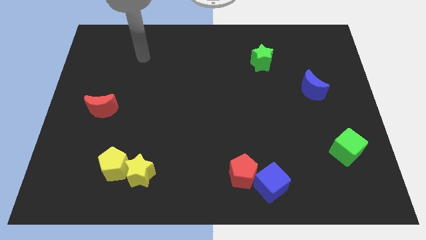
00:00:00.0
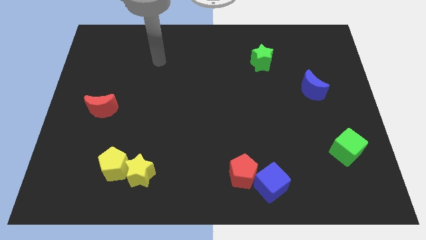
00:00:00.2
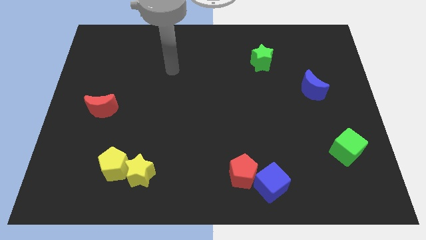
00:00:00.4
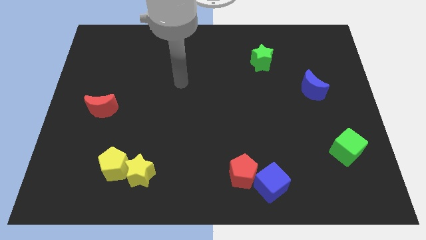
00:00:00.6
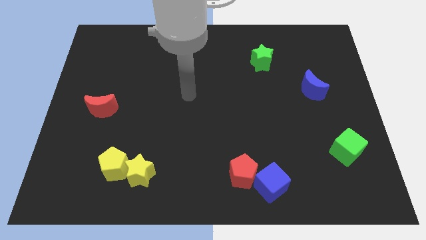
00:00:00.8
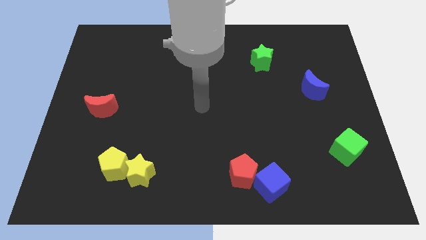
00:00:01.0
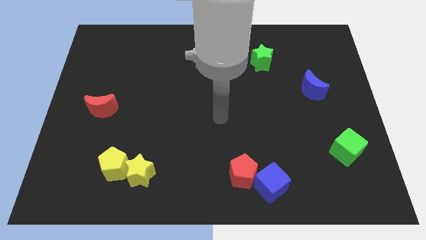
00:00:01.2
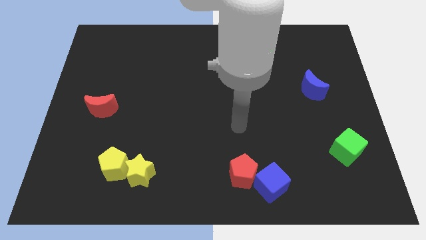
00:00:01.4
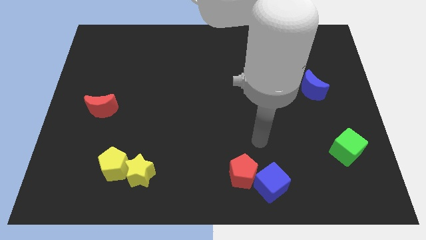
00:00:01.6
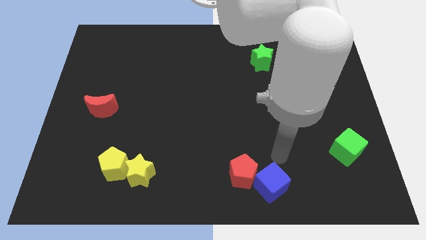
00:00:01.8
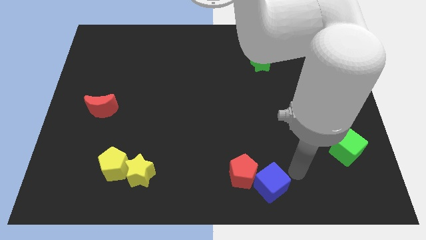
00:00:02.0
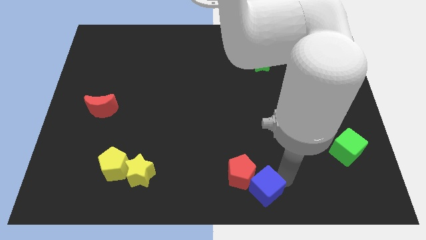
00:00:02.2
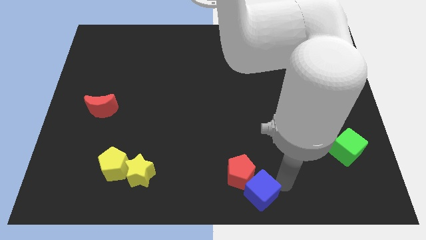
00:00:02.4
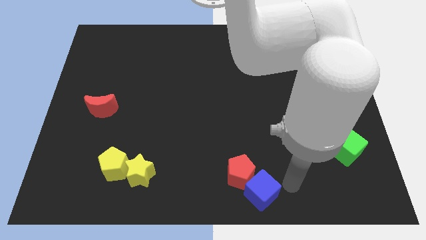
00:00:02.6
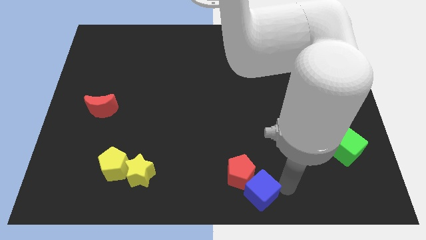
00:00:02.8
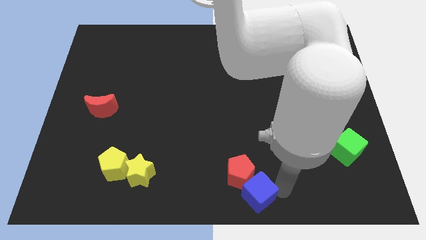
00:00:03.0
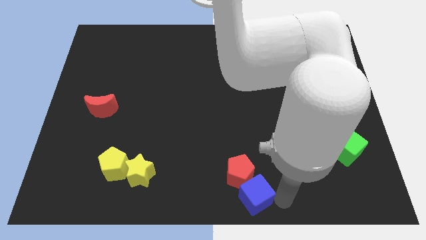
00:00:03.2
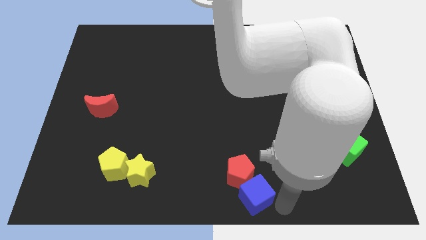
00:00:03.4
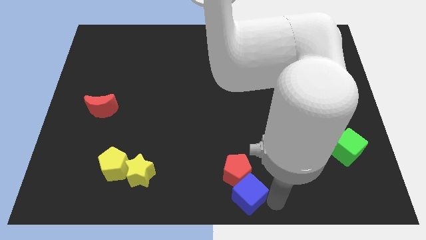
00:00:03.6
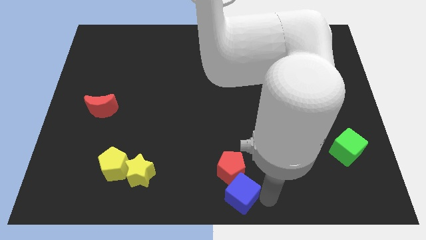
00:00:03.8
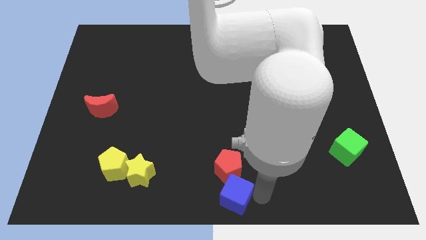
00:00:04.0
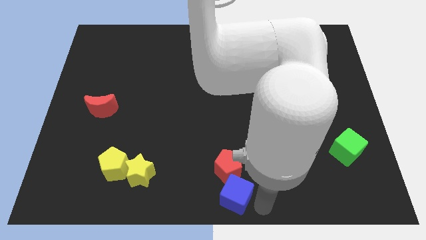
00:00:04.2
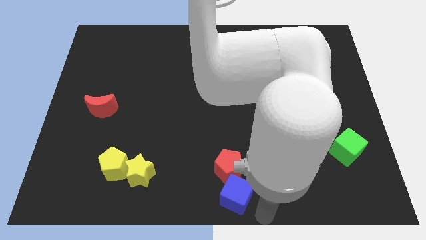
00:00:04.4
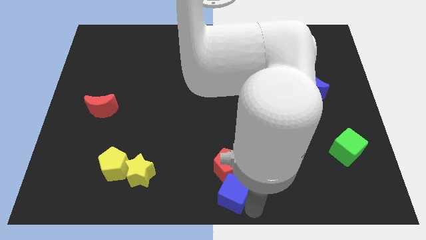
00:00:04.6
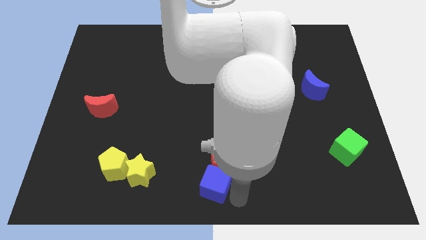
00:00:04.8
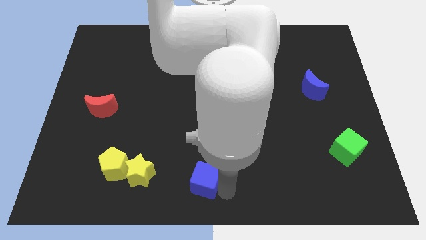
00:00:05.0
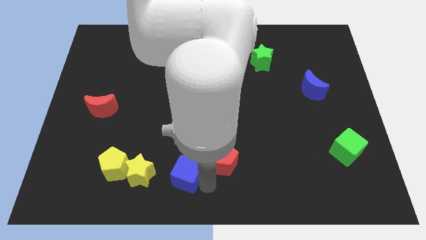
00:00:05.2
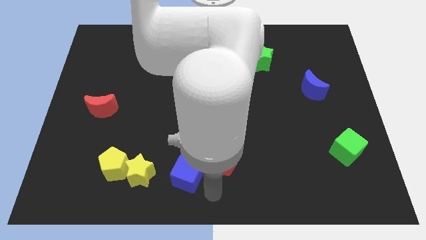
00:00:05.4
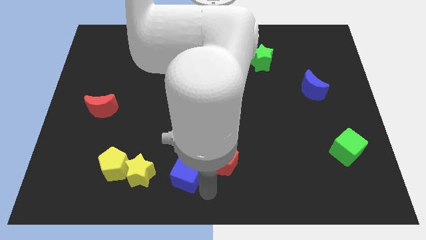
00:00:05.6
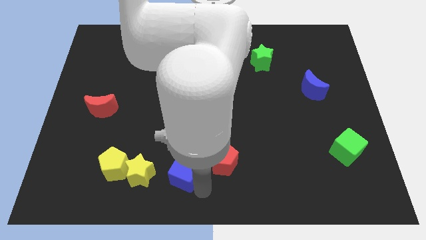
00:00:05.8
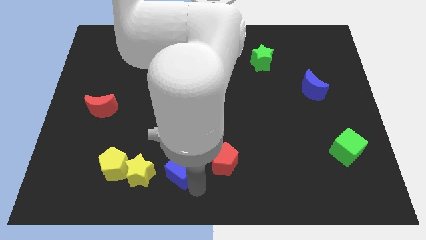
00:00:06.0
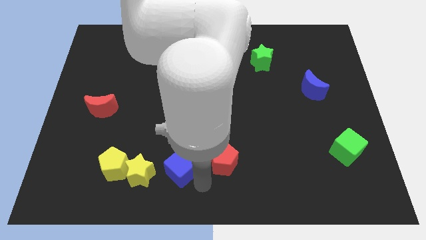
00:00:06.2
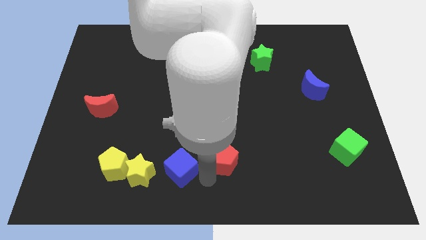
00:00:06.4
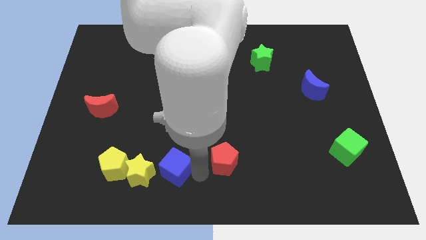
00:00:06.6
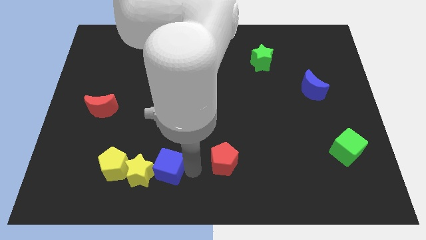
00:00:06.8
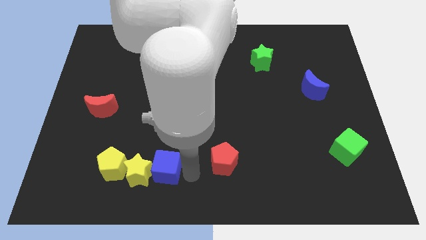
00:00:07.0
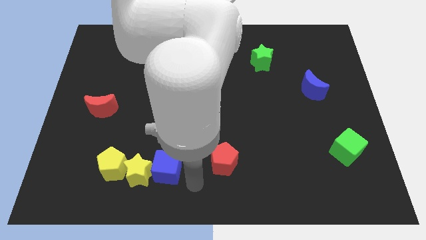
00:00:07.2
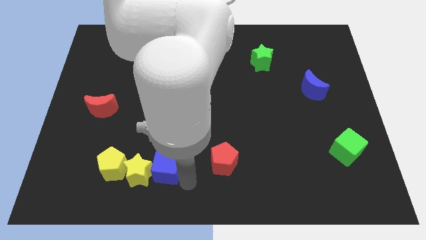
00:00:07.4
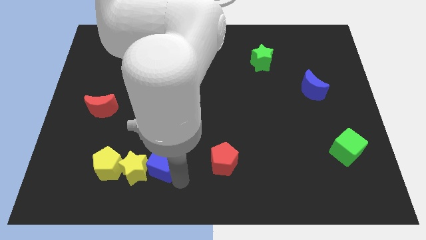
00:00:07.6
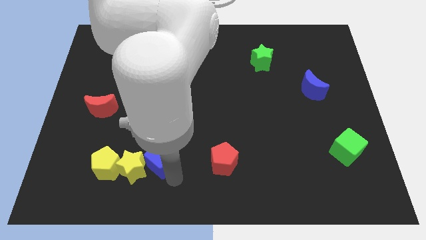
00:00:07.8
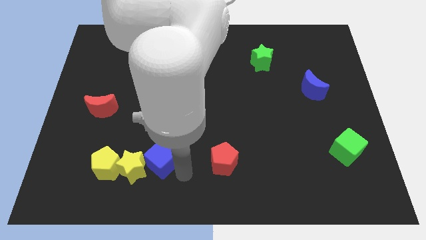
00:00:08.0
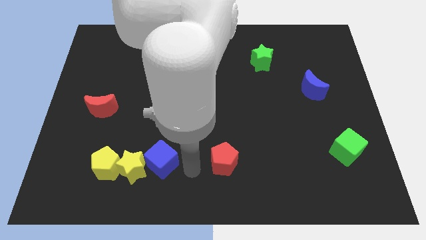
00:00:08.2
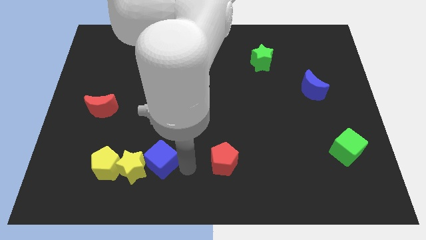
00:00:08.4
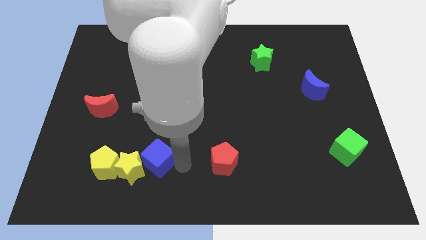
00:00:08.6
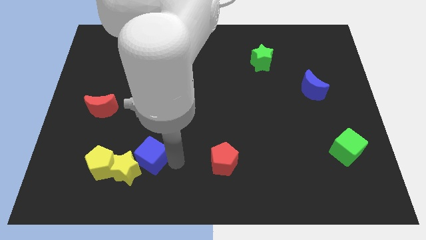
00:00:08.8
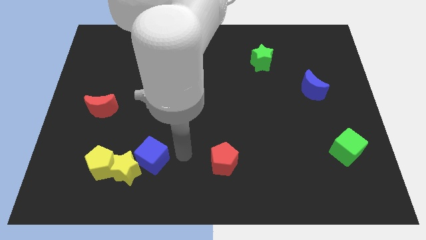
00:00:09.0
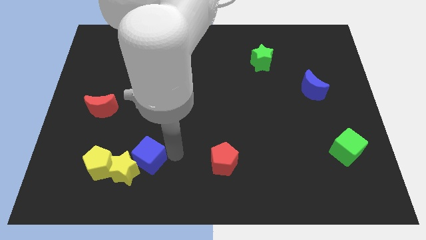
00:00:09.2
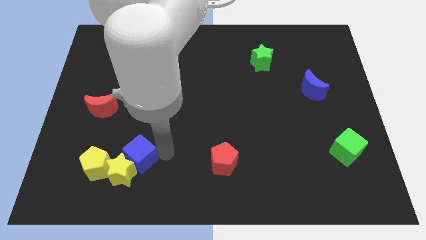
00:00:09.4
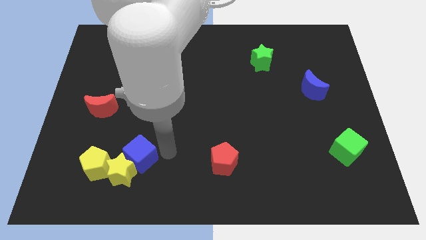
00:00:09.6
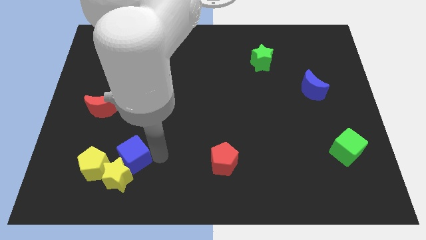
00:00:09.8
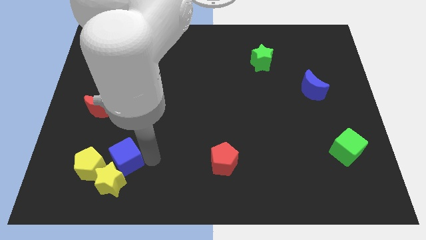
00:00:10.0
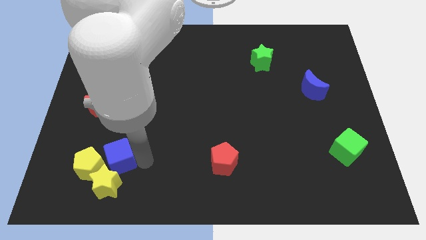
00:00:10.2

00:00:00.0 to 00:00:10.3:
put the blue cube towards the yellow pentagon

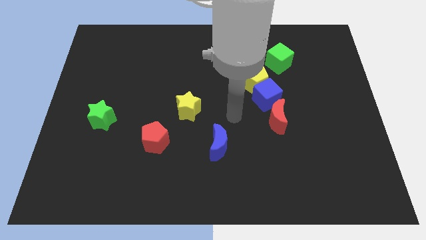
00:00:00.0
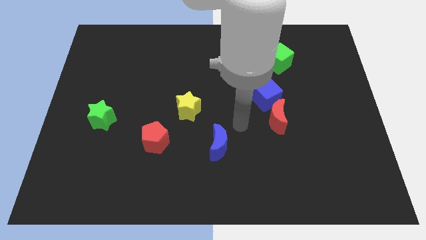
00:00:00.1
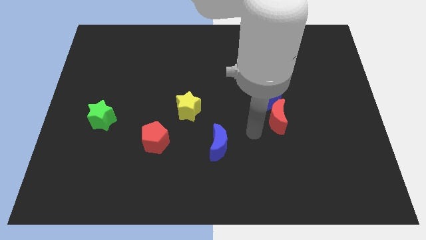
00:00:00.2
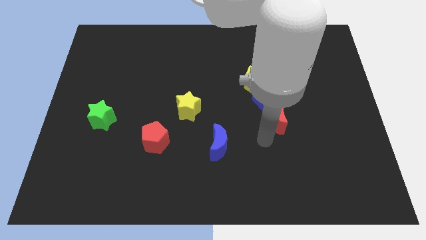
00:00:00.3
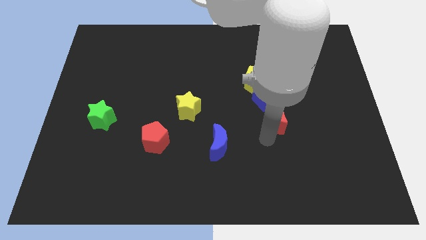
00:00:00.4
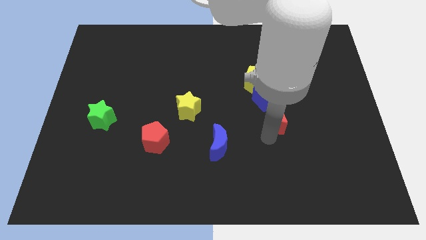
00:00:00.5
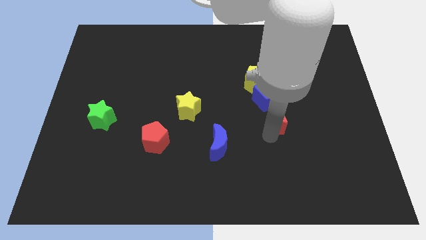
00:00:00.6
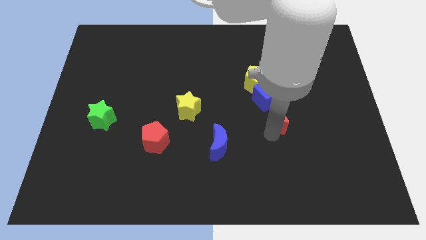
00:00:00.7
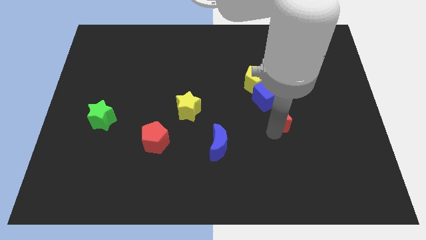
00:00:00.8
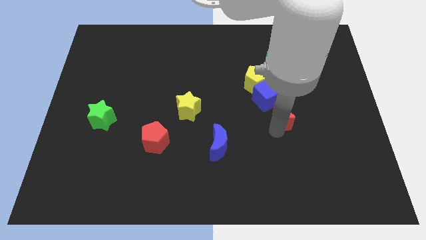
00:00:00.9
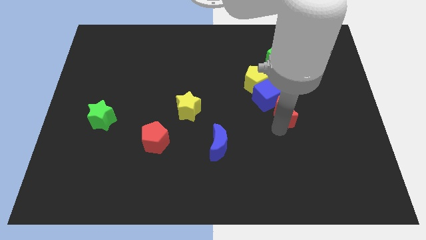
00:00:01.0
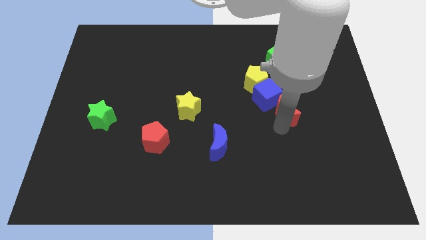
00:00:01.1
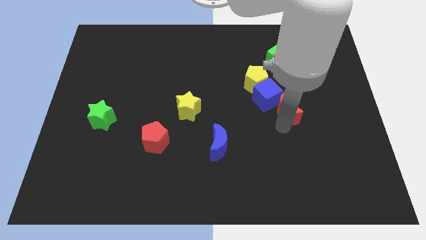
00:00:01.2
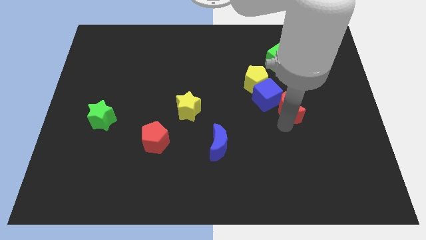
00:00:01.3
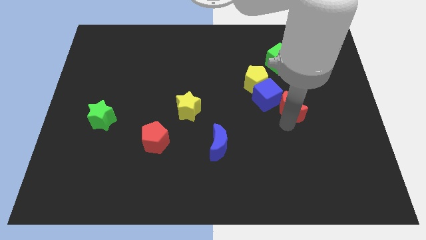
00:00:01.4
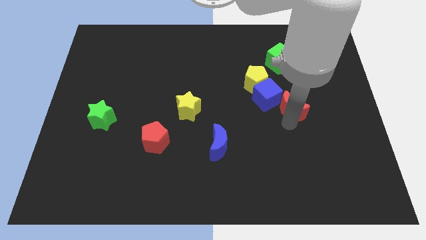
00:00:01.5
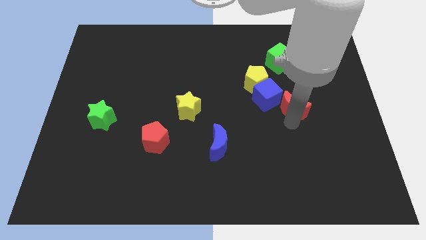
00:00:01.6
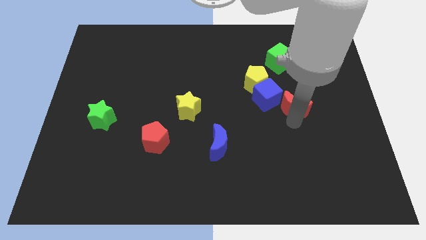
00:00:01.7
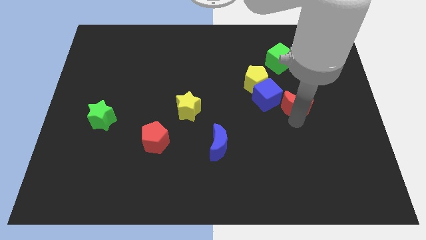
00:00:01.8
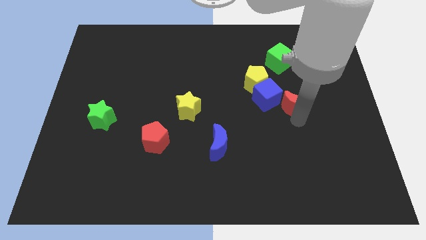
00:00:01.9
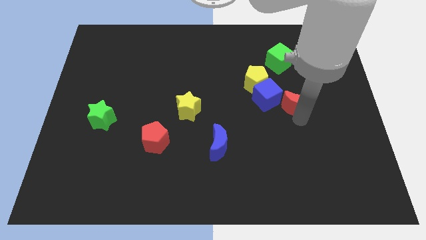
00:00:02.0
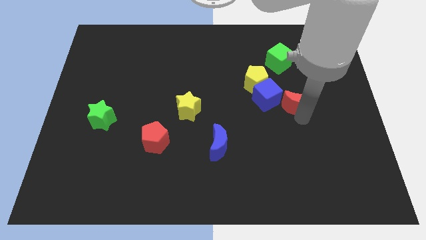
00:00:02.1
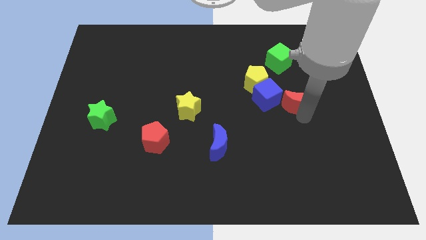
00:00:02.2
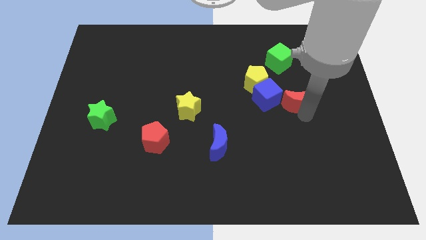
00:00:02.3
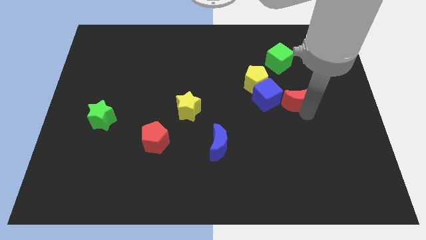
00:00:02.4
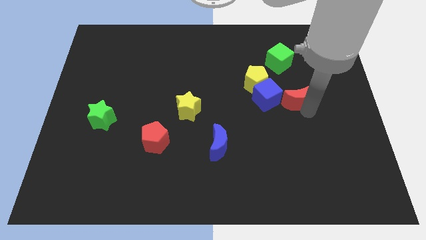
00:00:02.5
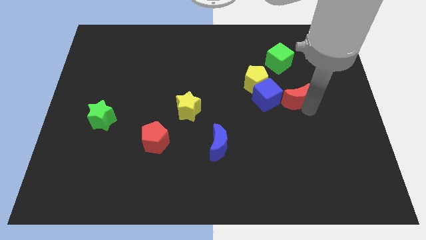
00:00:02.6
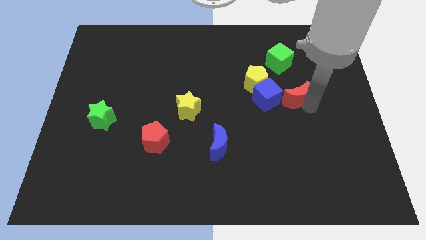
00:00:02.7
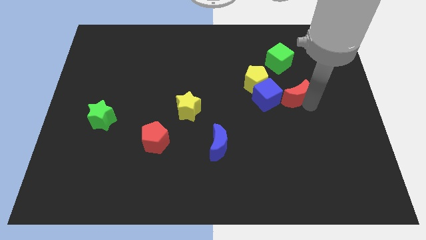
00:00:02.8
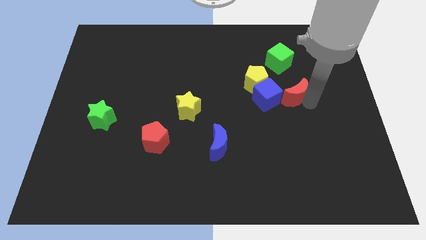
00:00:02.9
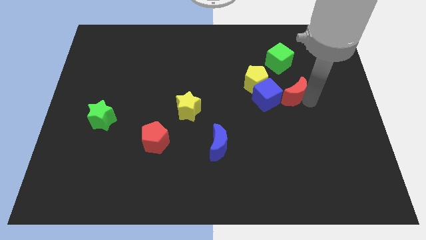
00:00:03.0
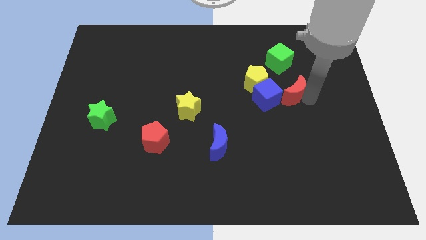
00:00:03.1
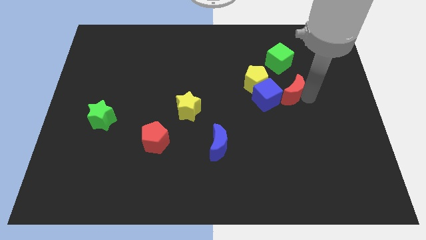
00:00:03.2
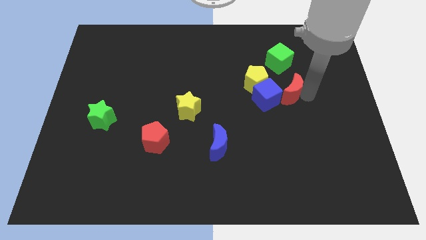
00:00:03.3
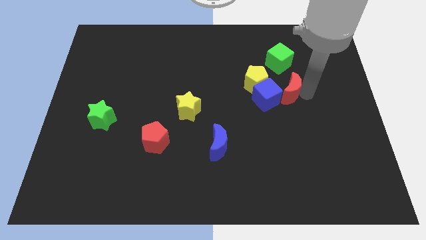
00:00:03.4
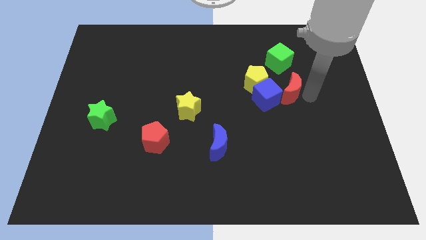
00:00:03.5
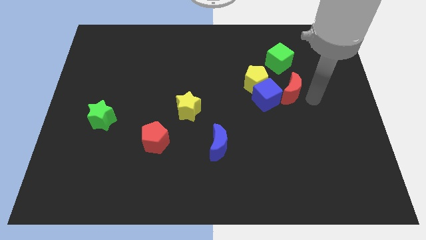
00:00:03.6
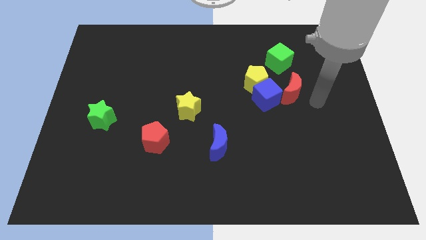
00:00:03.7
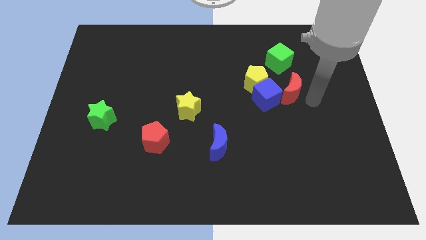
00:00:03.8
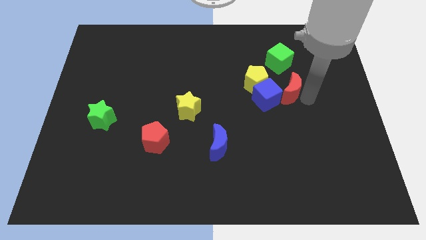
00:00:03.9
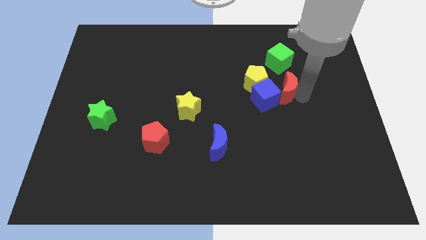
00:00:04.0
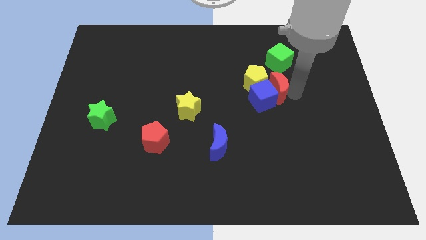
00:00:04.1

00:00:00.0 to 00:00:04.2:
push the red moon close to the yellow pentagon
